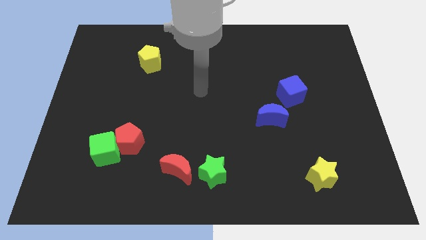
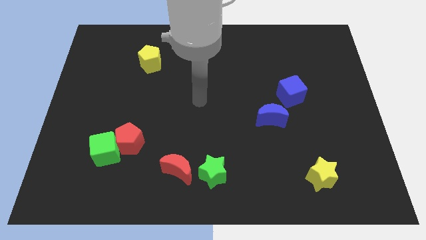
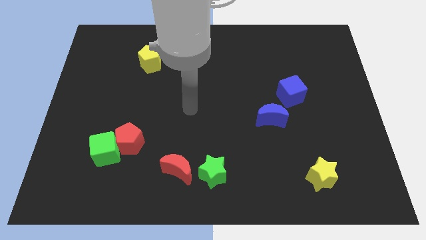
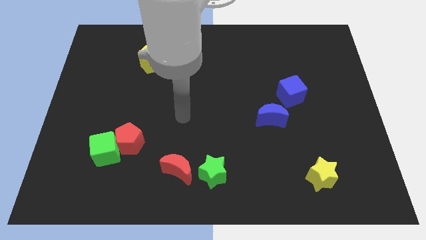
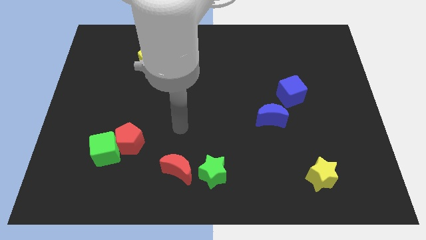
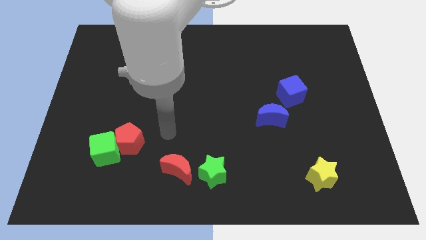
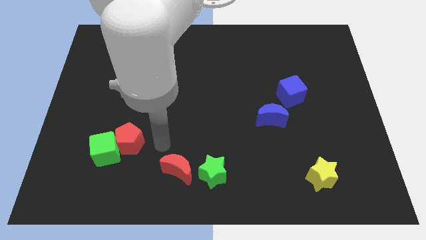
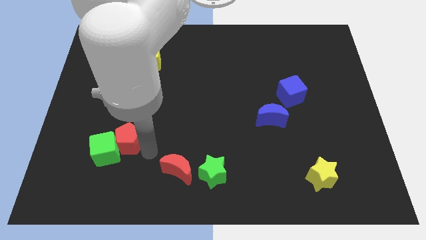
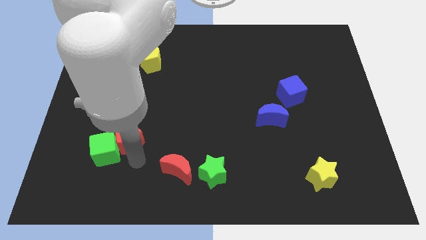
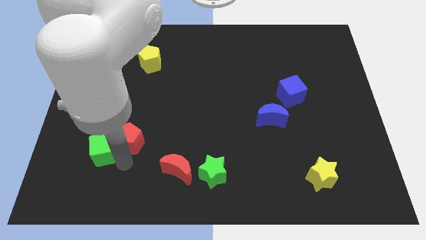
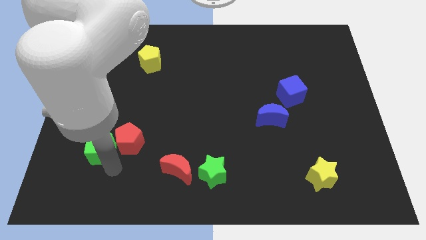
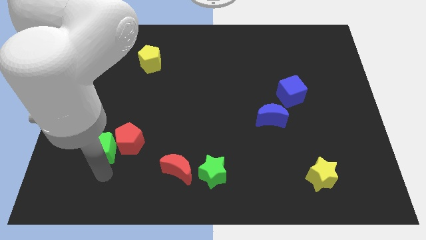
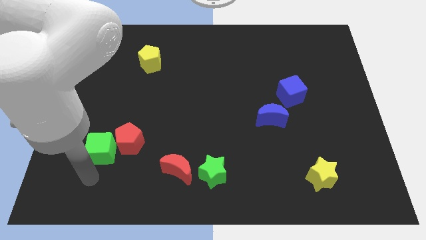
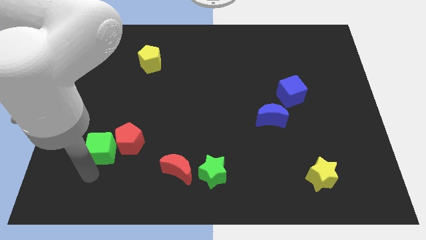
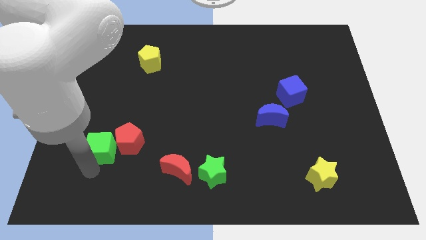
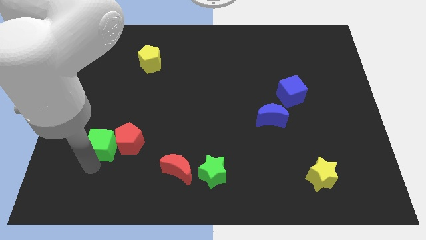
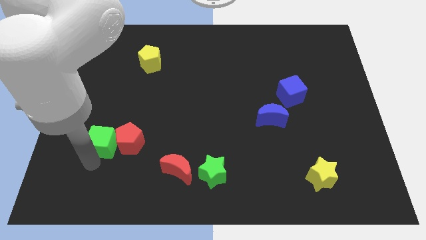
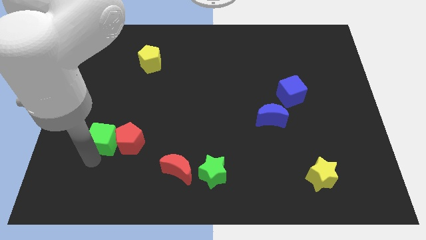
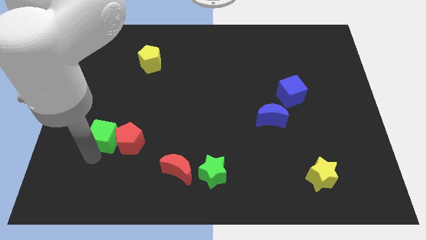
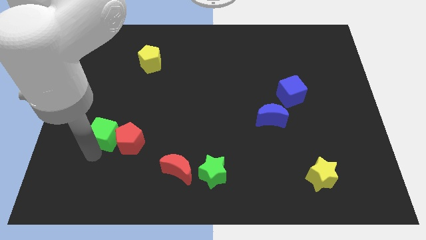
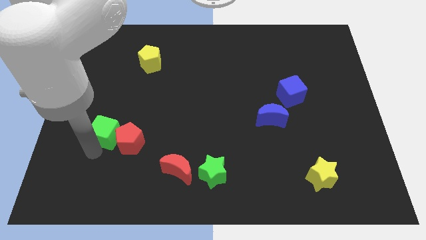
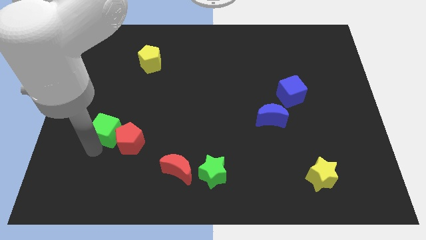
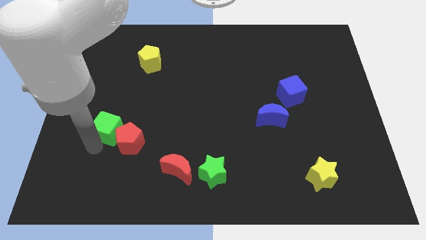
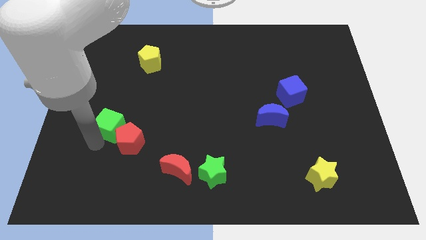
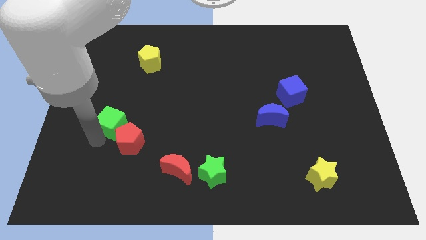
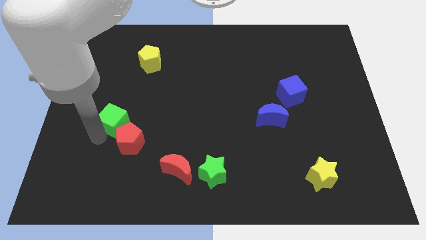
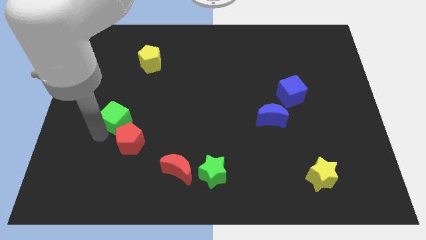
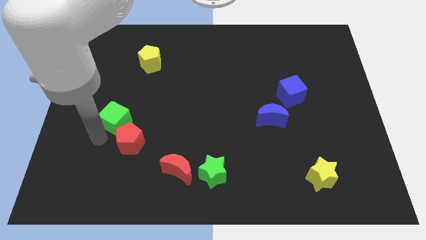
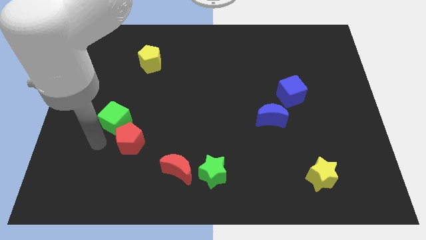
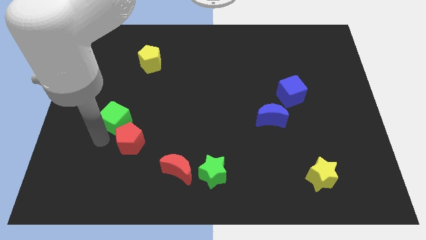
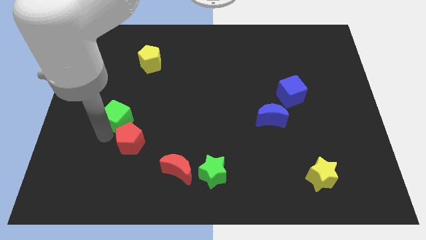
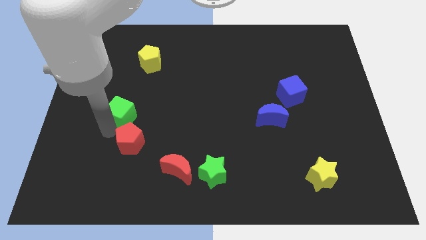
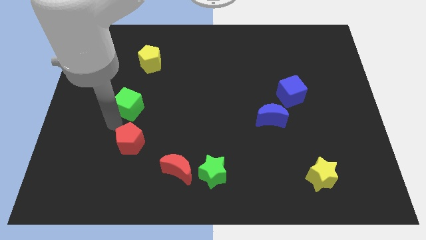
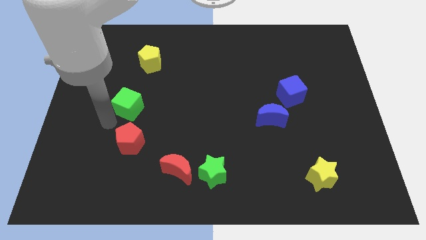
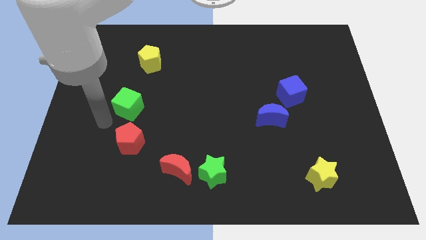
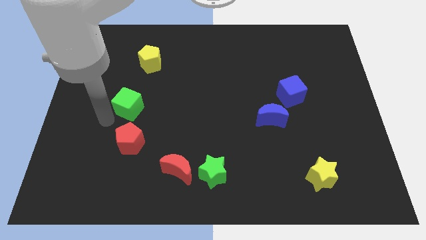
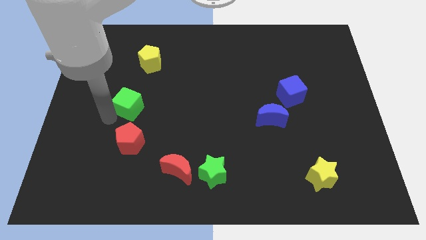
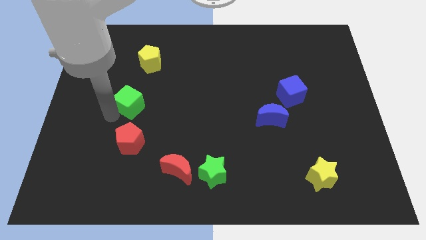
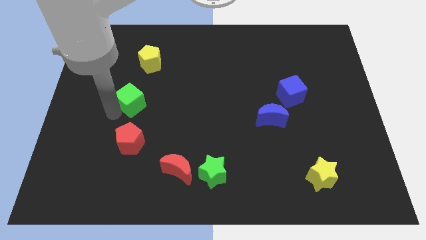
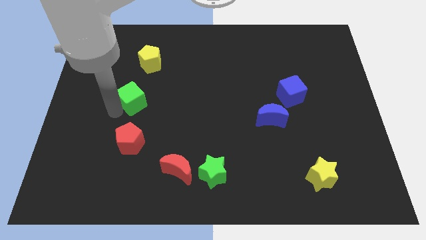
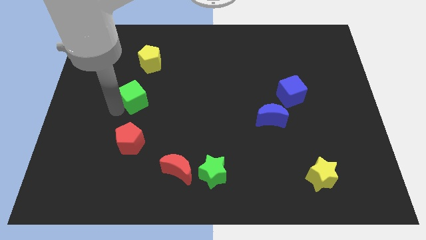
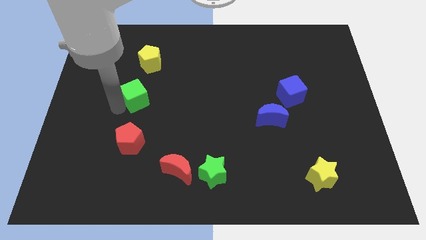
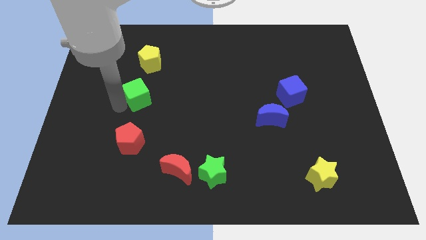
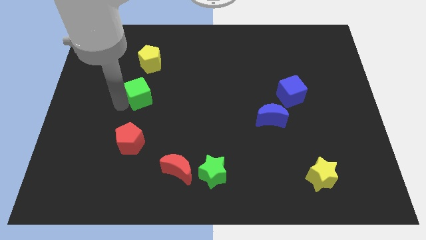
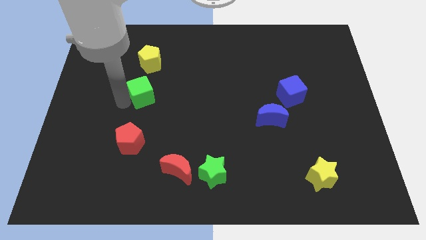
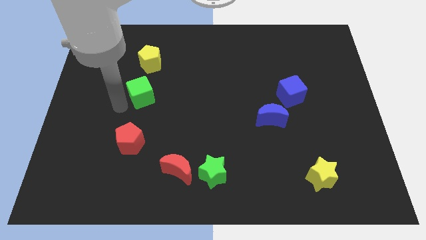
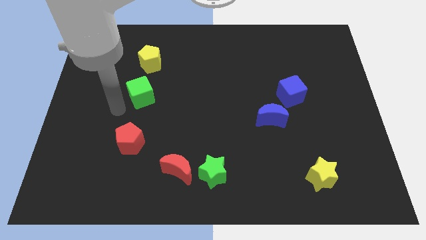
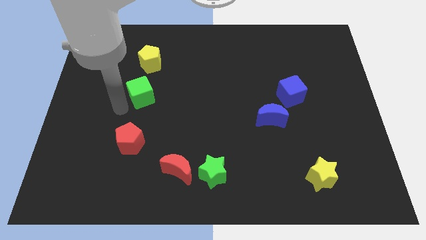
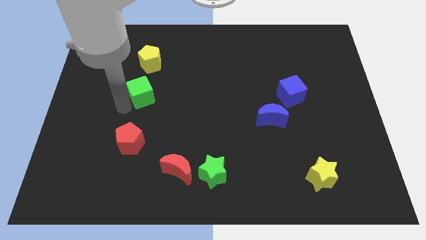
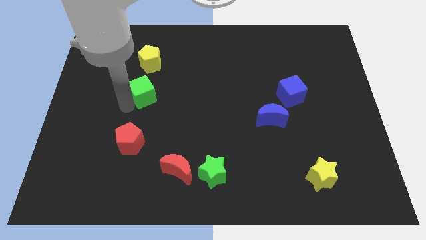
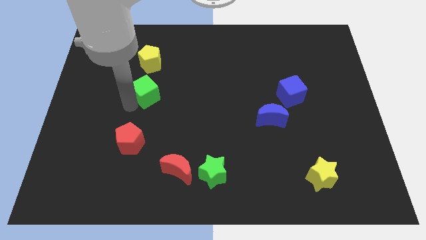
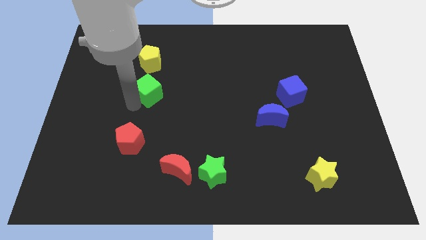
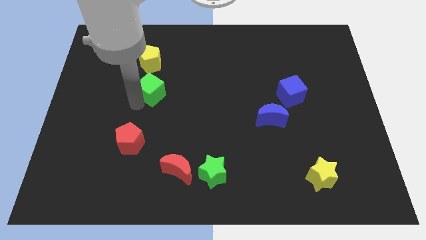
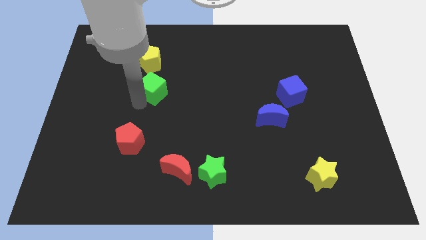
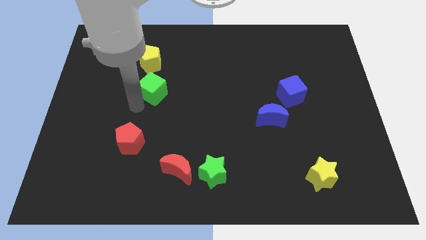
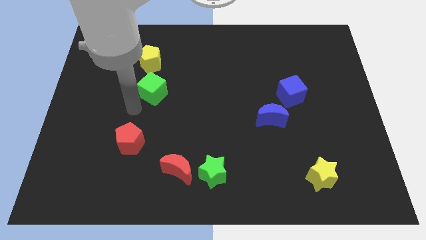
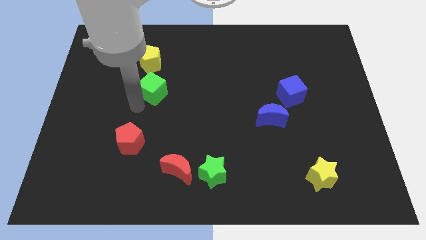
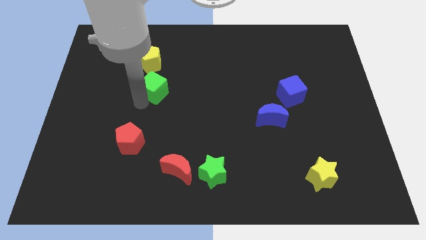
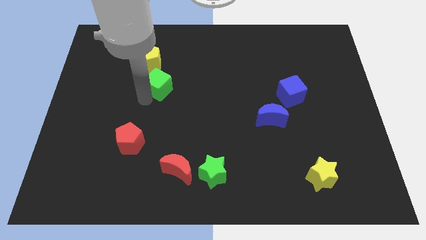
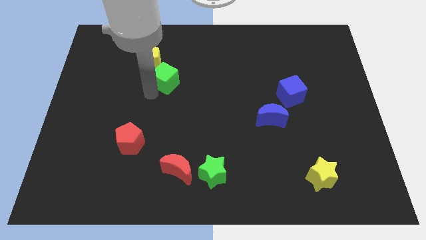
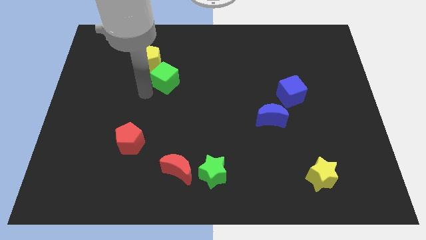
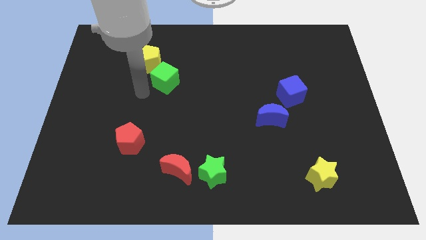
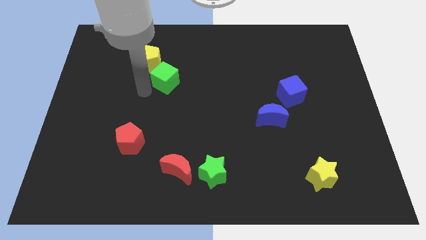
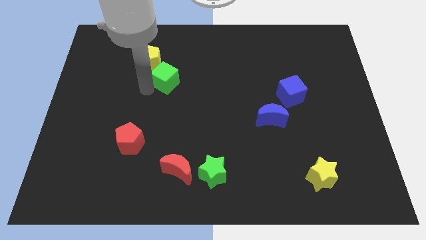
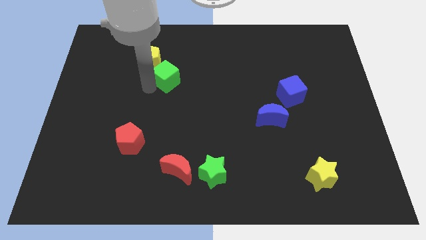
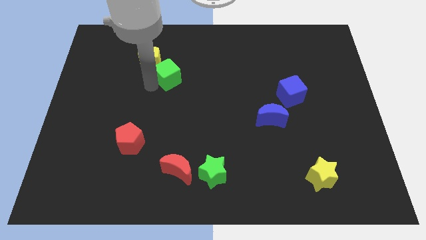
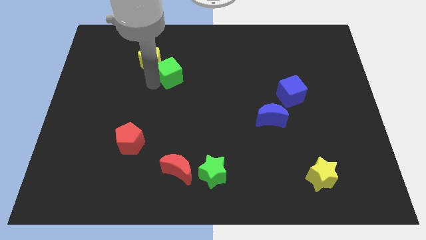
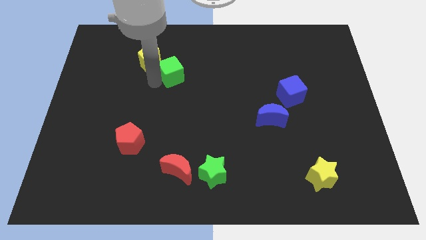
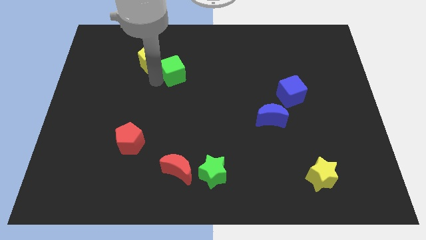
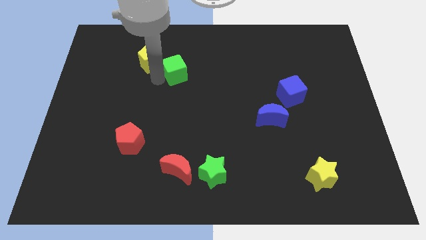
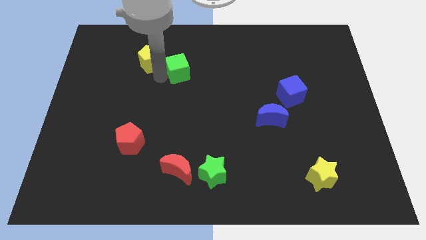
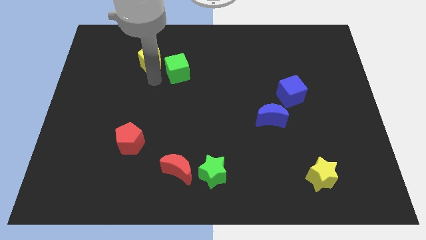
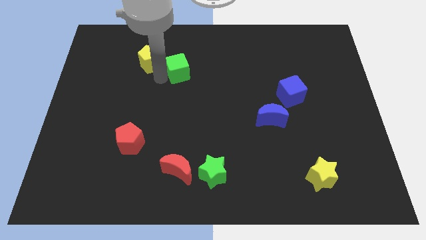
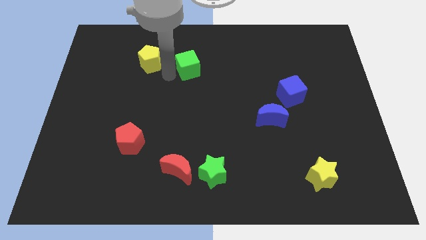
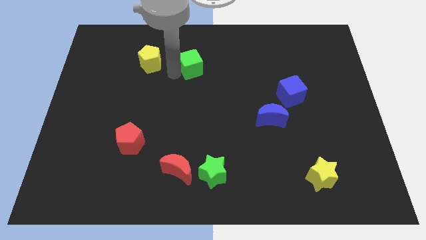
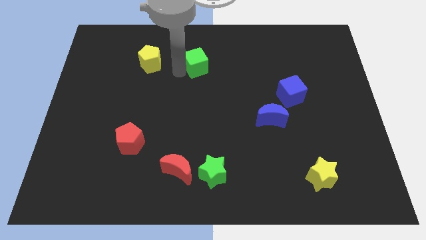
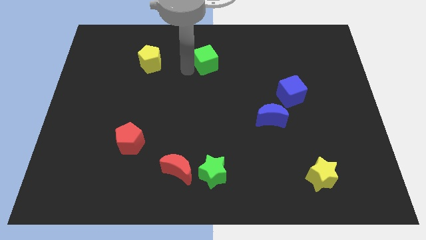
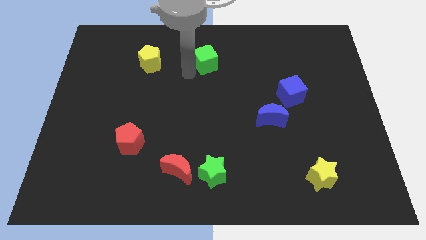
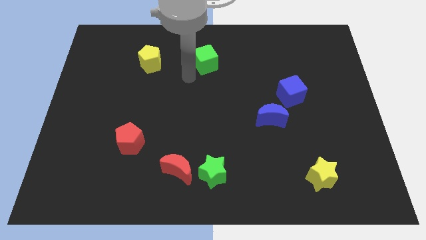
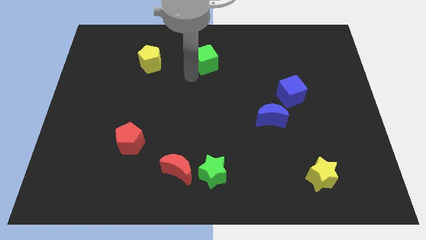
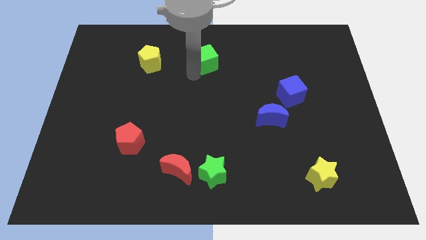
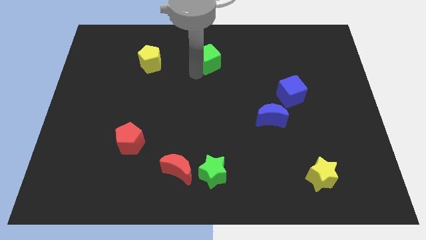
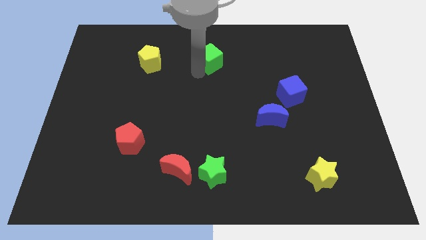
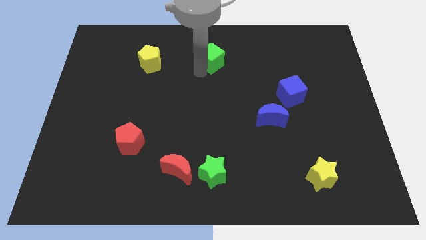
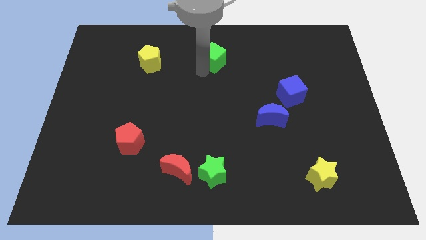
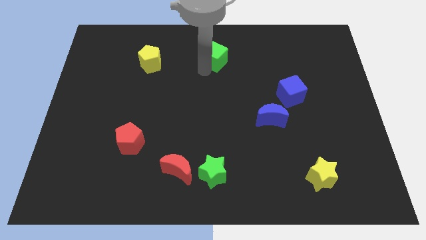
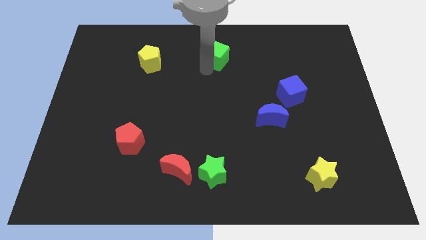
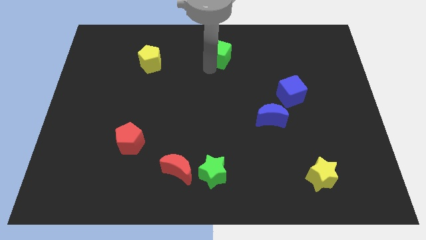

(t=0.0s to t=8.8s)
move the green cube to the towards your base
